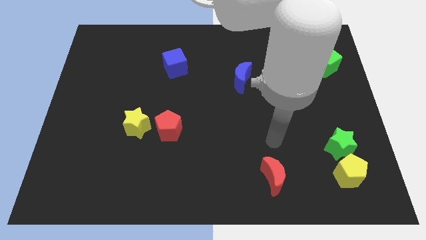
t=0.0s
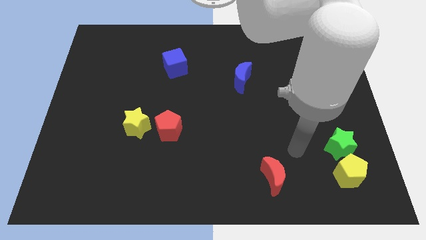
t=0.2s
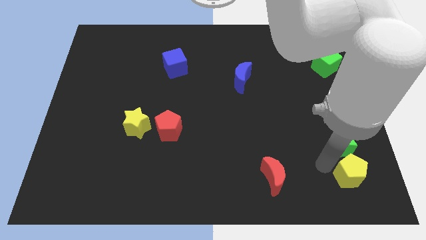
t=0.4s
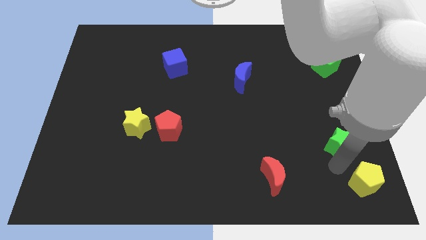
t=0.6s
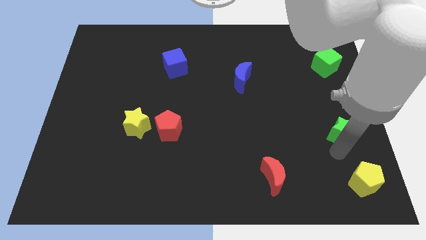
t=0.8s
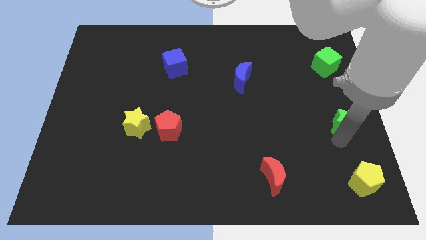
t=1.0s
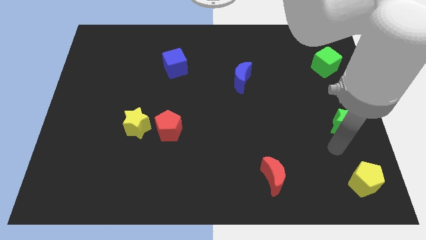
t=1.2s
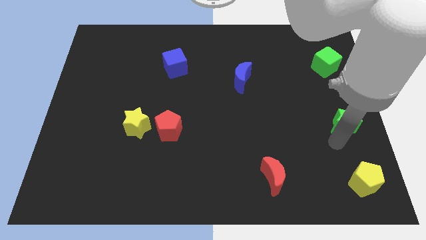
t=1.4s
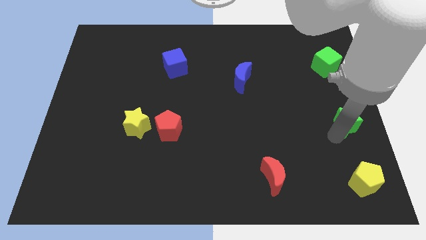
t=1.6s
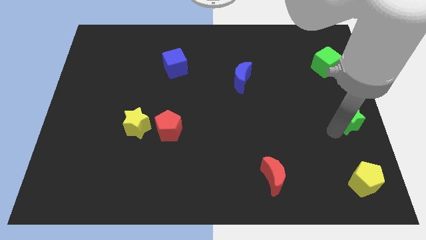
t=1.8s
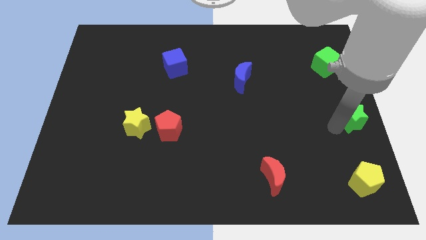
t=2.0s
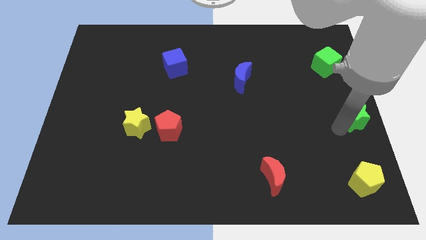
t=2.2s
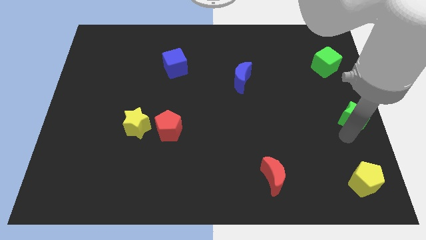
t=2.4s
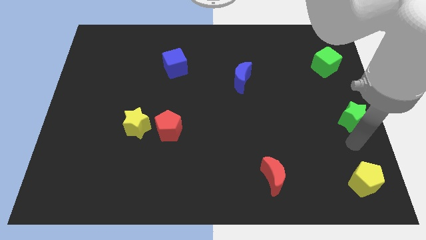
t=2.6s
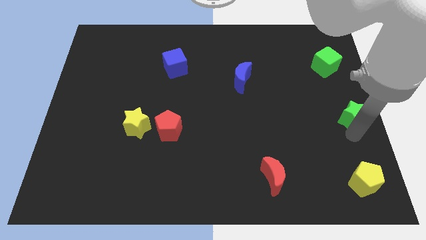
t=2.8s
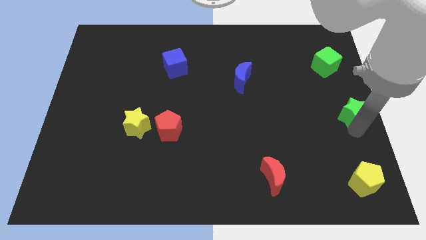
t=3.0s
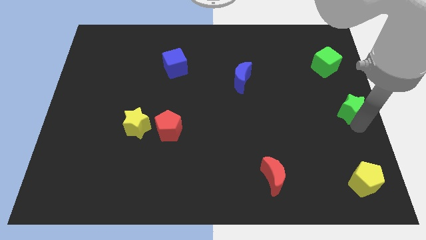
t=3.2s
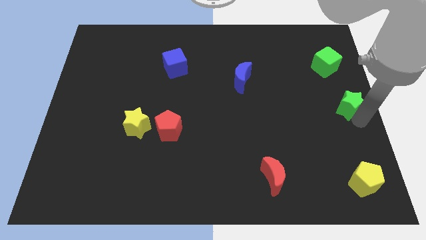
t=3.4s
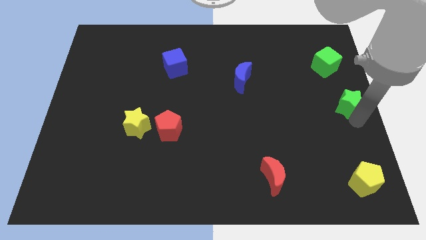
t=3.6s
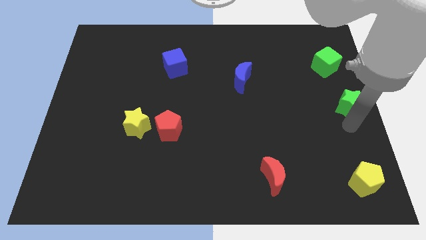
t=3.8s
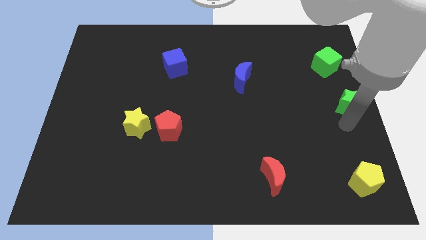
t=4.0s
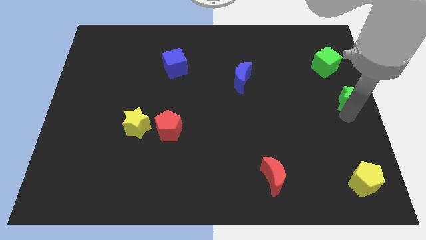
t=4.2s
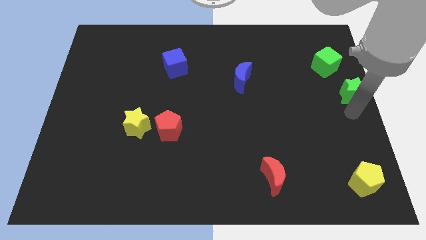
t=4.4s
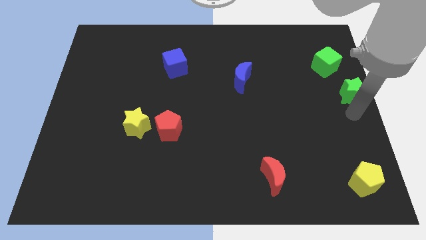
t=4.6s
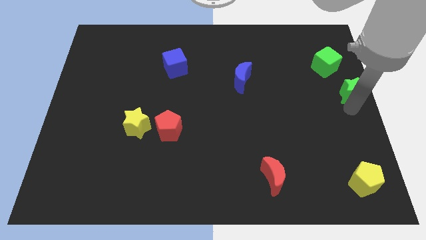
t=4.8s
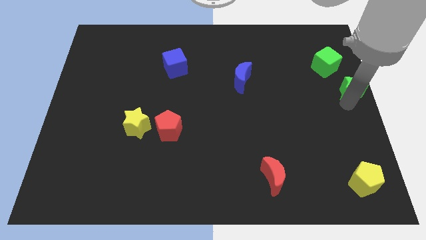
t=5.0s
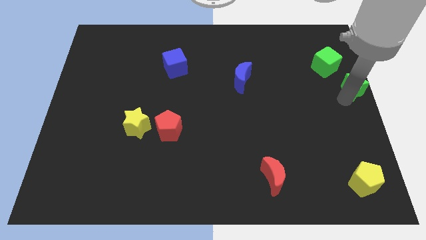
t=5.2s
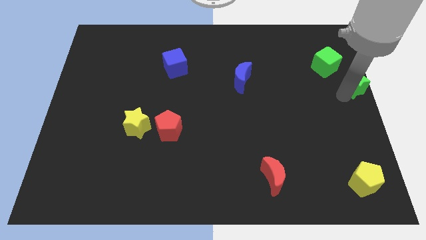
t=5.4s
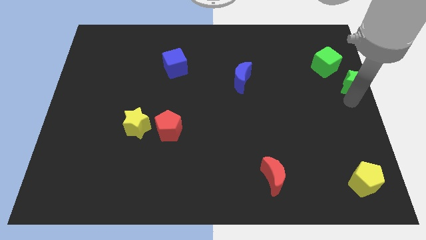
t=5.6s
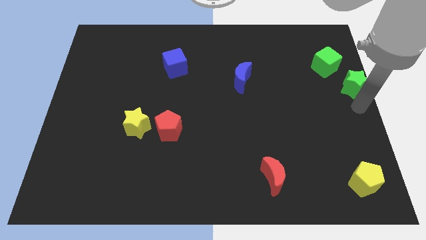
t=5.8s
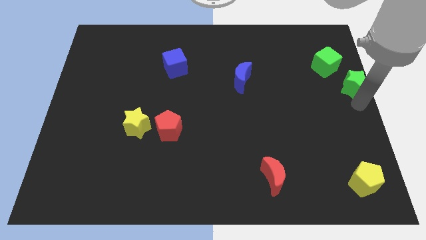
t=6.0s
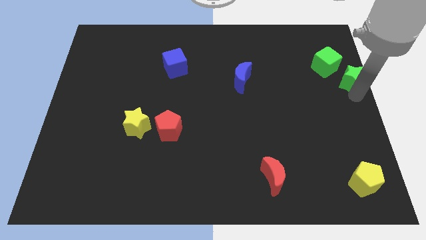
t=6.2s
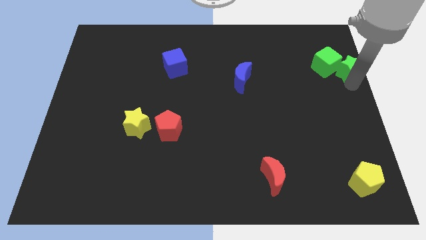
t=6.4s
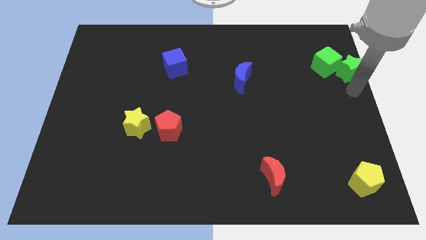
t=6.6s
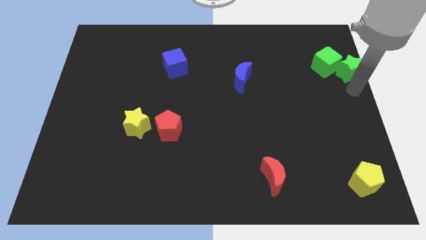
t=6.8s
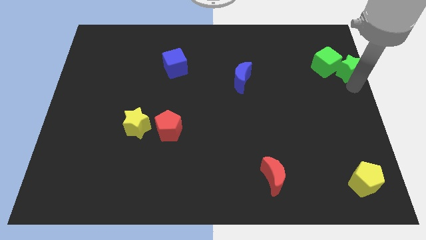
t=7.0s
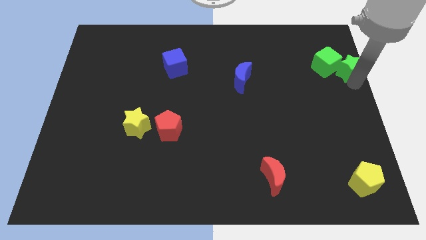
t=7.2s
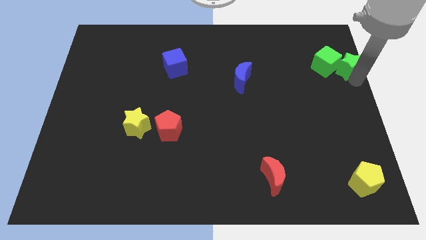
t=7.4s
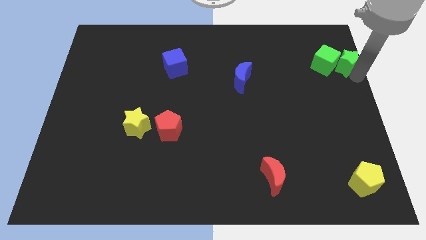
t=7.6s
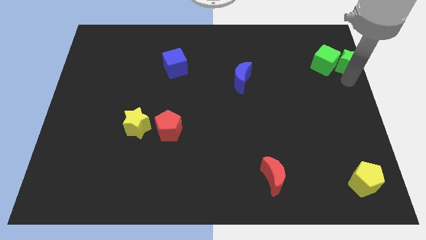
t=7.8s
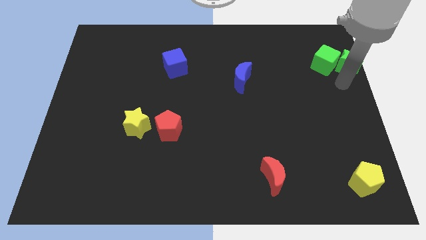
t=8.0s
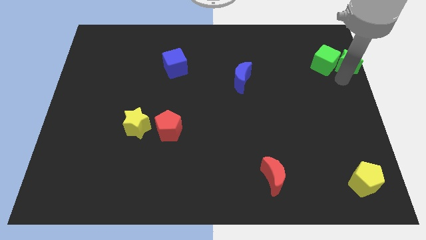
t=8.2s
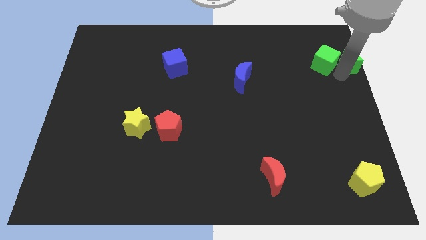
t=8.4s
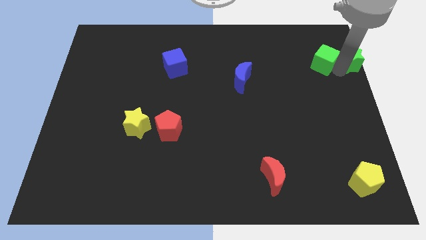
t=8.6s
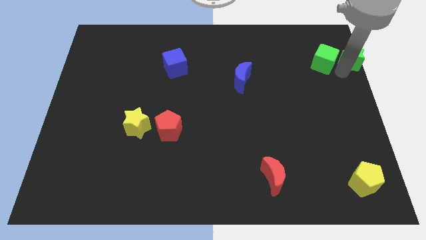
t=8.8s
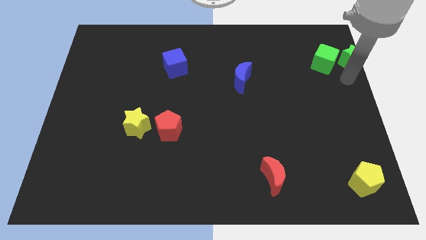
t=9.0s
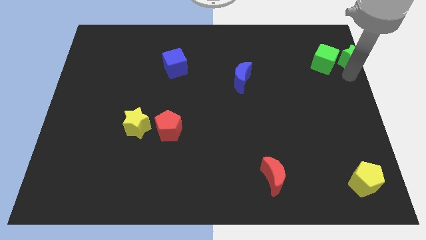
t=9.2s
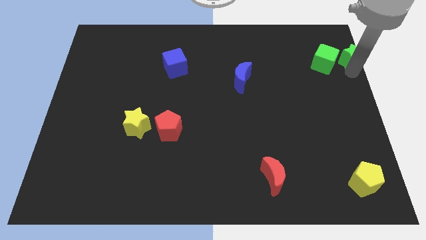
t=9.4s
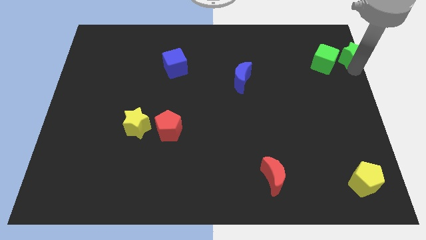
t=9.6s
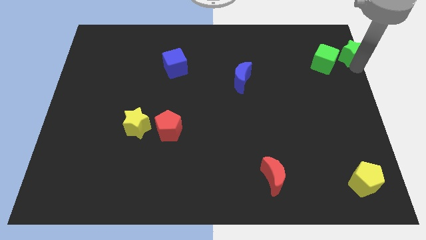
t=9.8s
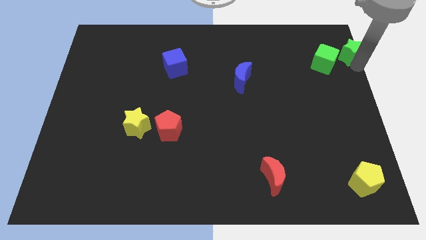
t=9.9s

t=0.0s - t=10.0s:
push the green star to the top right

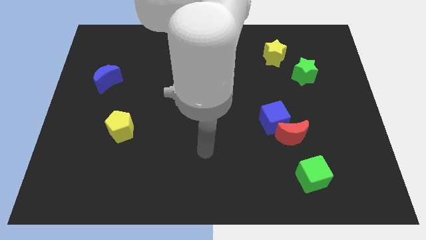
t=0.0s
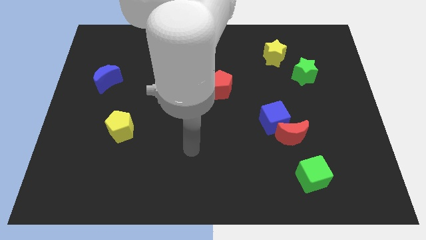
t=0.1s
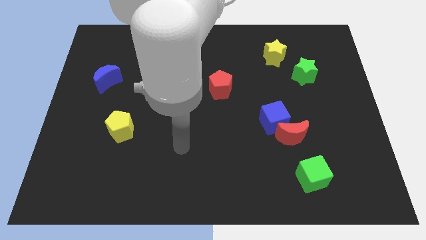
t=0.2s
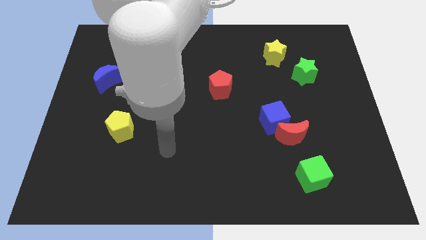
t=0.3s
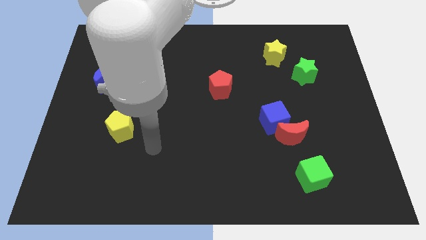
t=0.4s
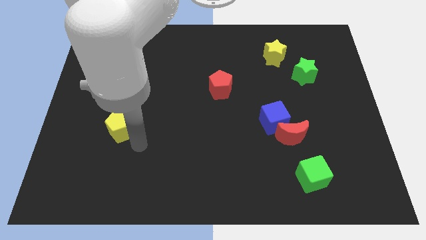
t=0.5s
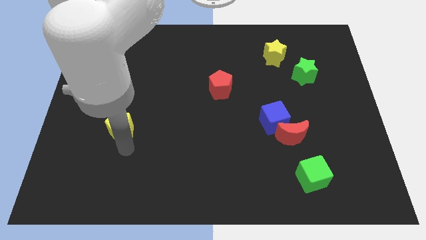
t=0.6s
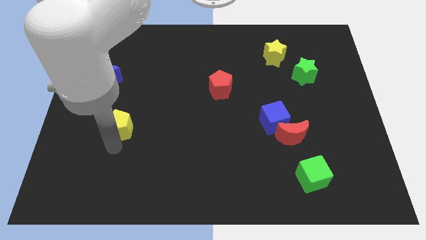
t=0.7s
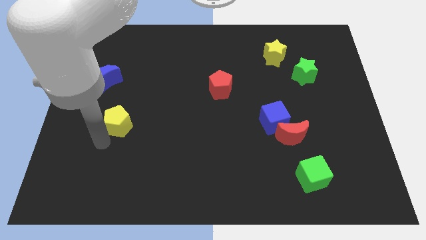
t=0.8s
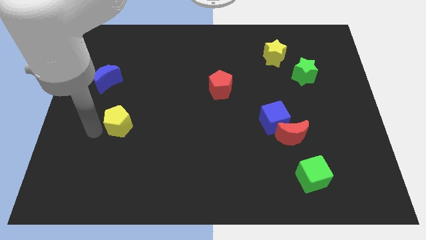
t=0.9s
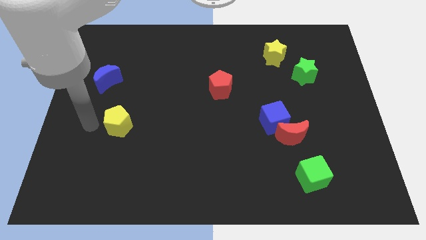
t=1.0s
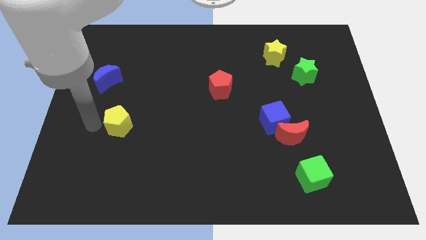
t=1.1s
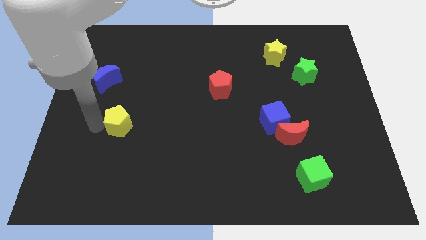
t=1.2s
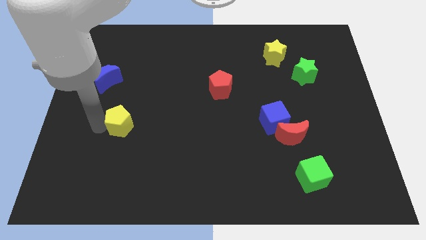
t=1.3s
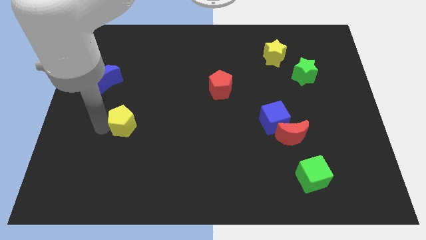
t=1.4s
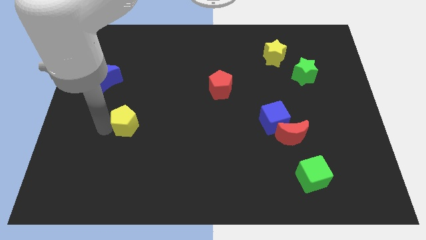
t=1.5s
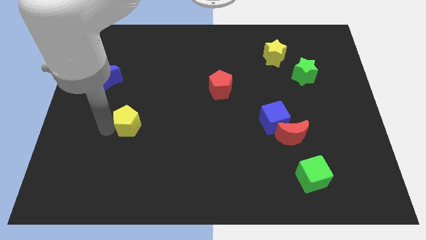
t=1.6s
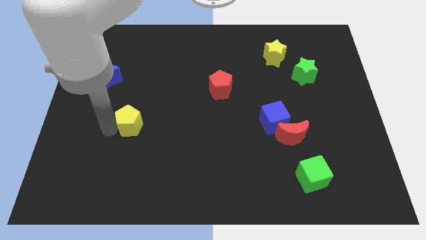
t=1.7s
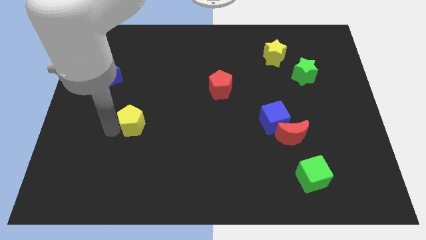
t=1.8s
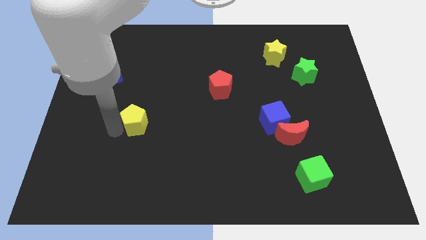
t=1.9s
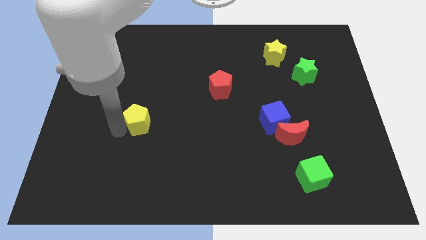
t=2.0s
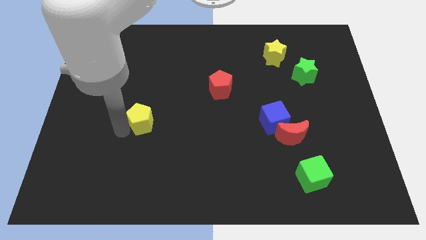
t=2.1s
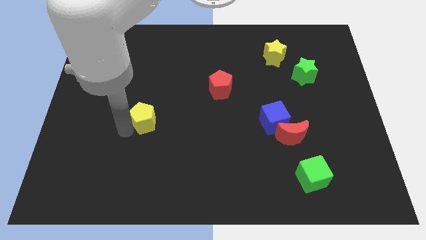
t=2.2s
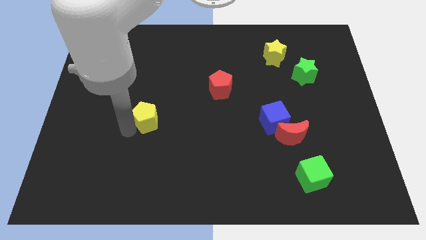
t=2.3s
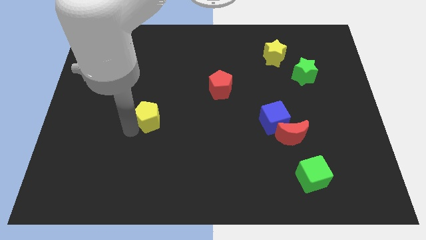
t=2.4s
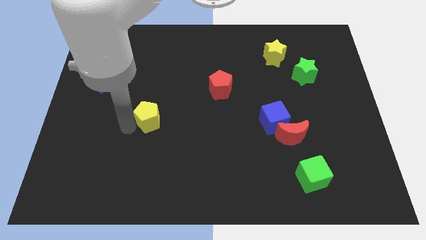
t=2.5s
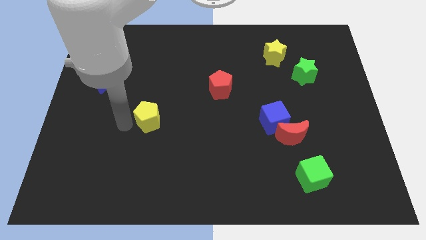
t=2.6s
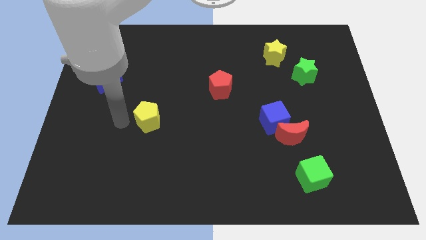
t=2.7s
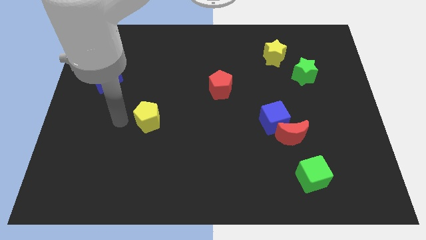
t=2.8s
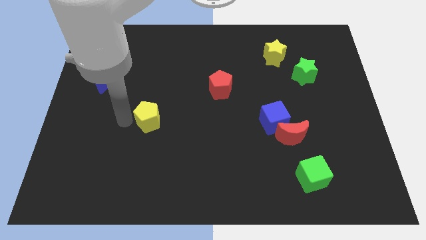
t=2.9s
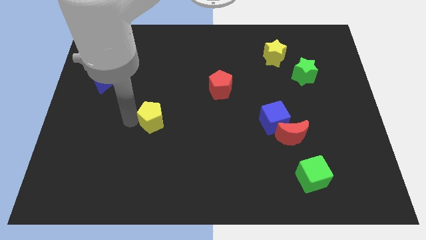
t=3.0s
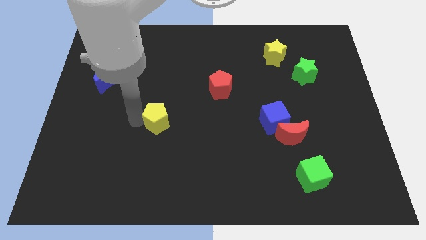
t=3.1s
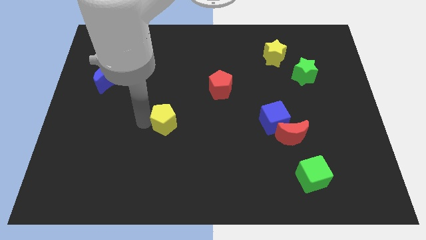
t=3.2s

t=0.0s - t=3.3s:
put the yellow pentagon to the middle of the board
